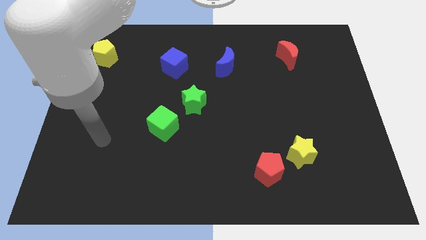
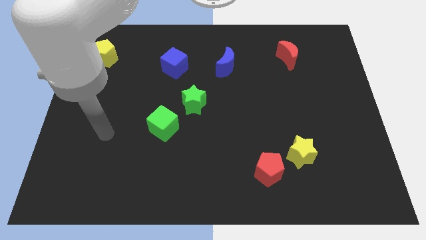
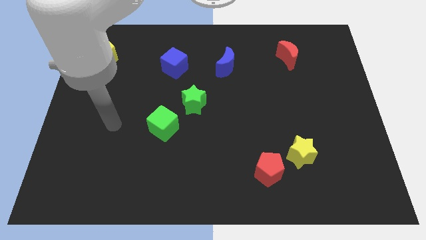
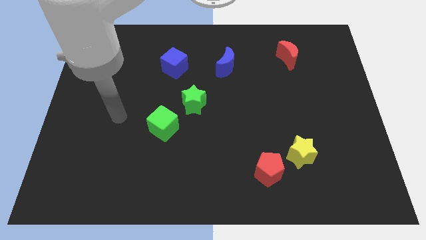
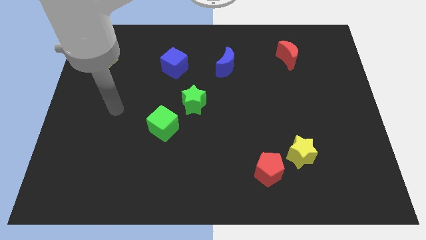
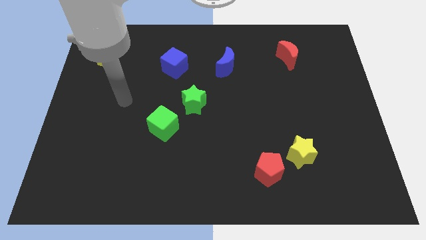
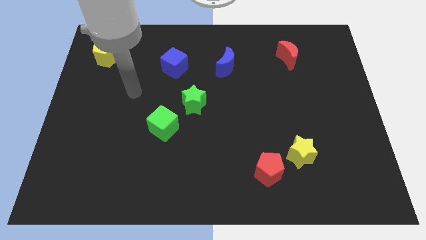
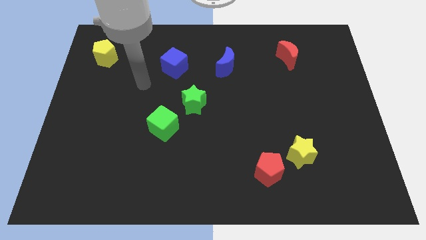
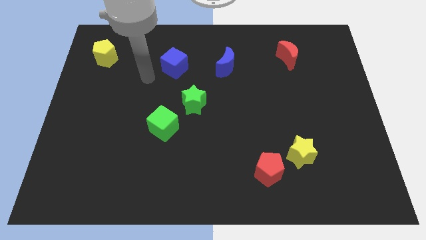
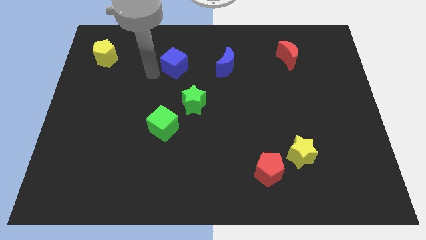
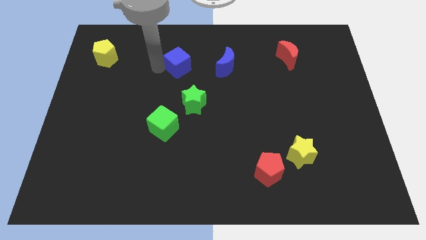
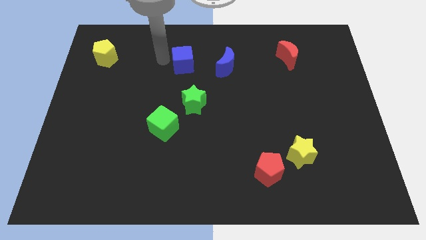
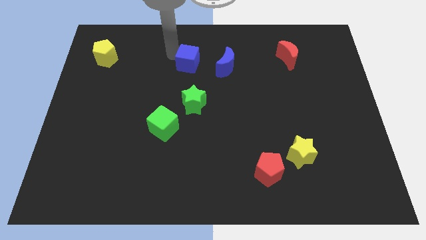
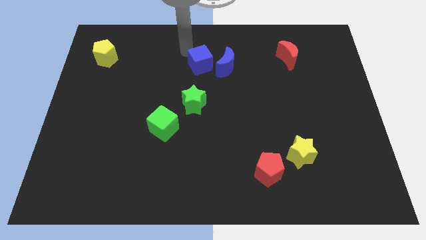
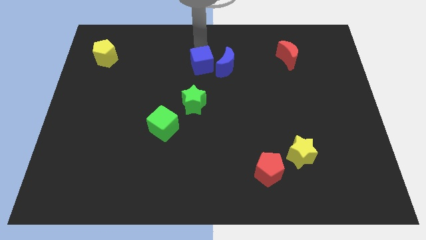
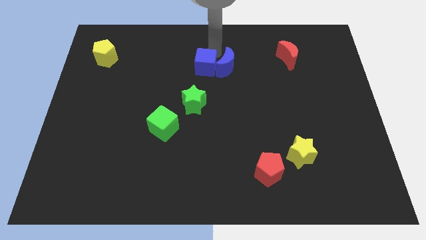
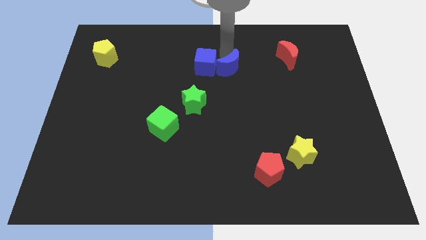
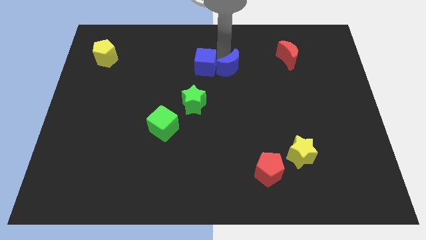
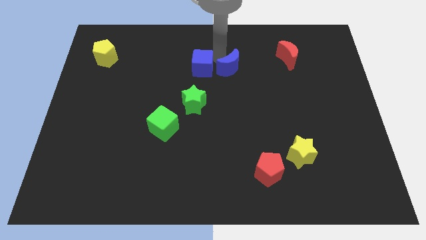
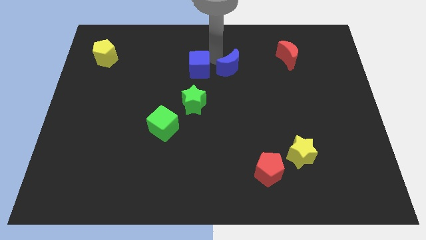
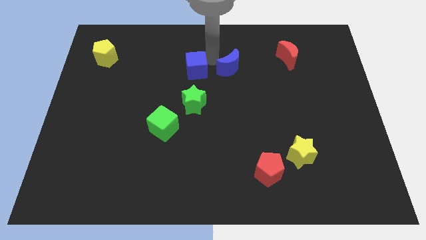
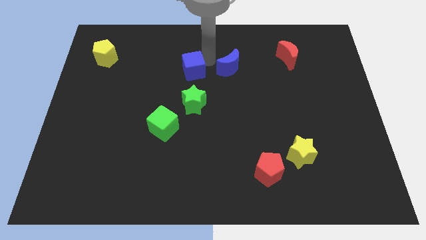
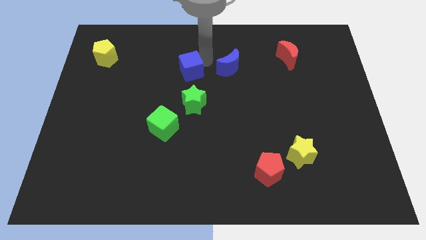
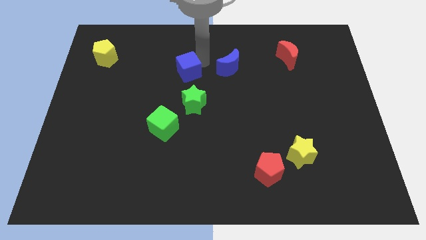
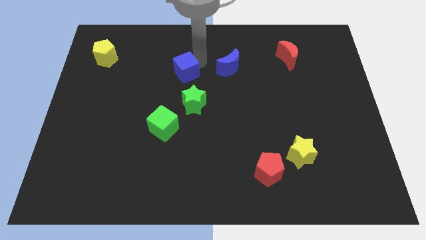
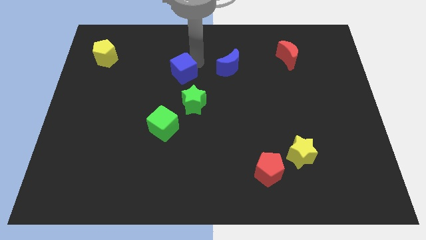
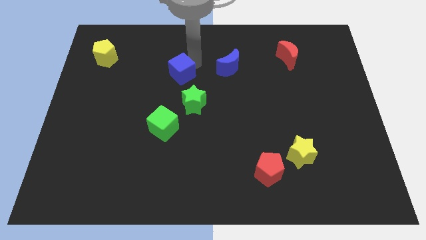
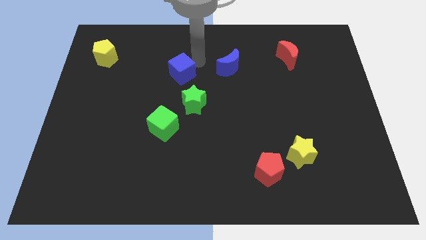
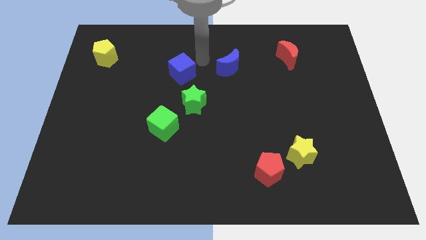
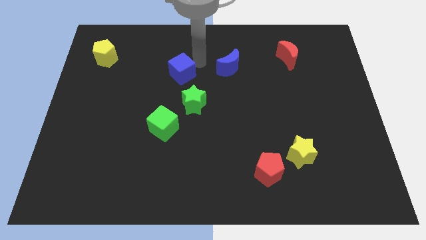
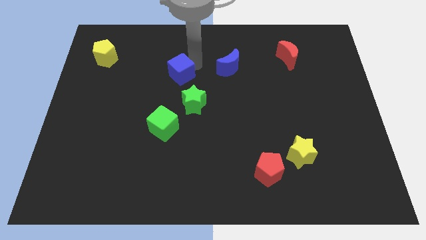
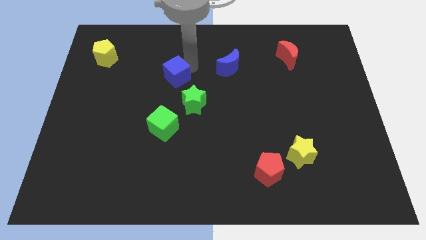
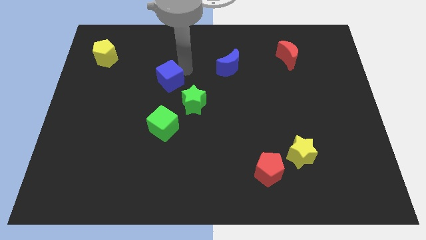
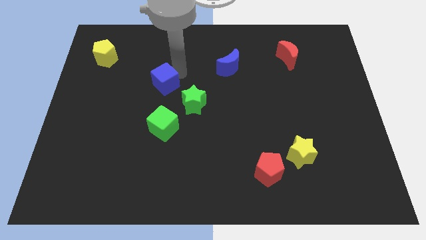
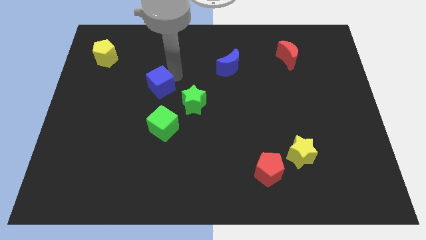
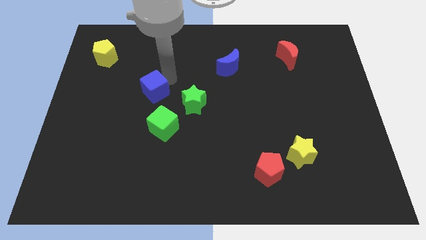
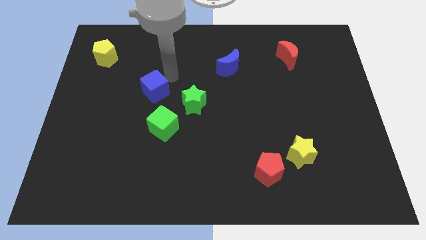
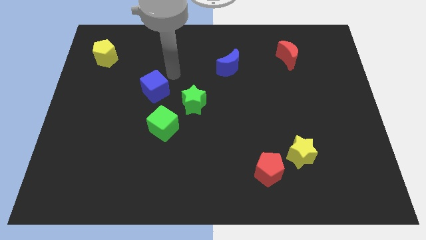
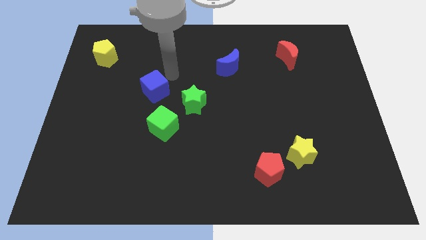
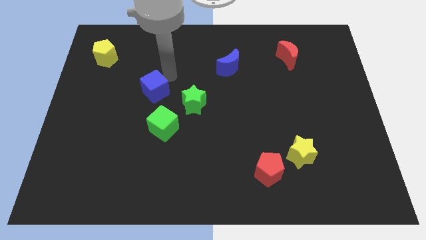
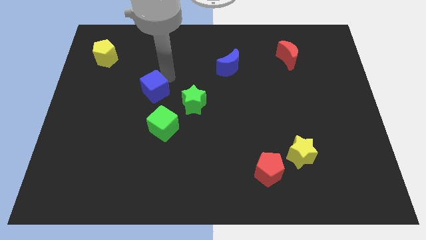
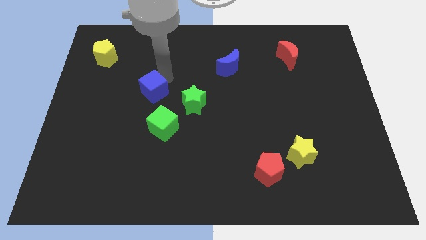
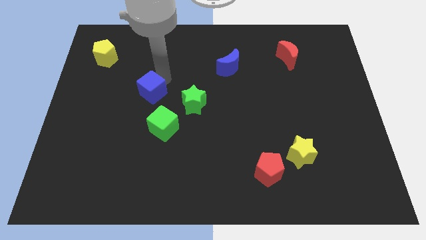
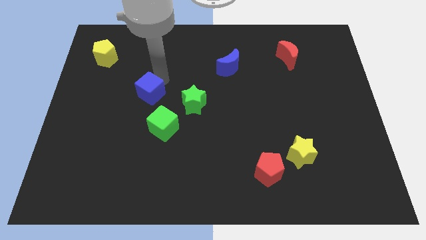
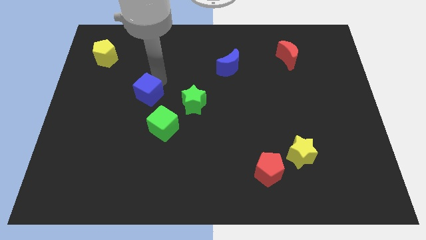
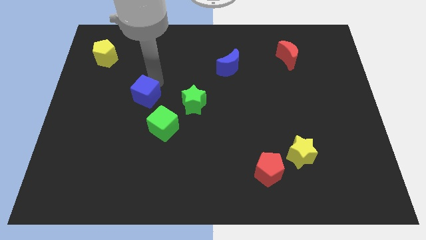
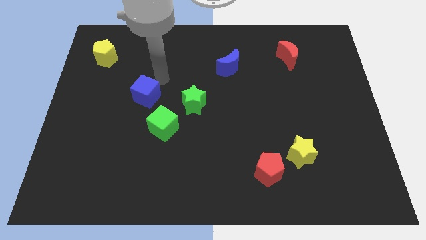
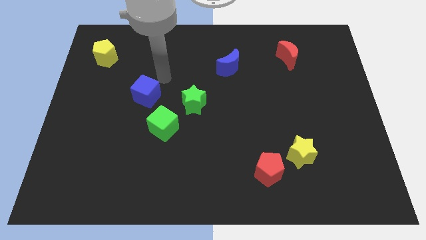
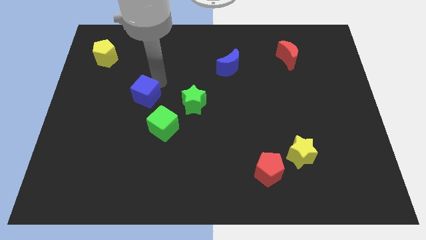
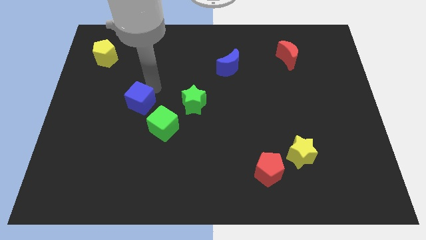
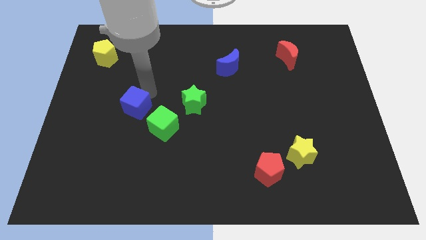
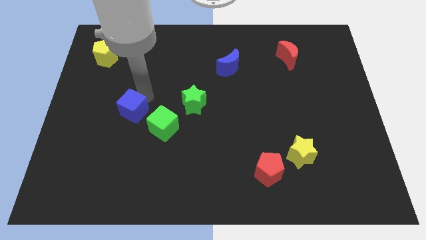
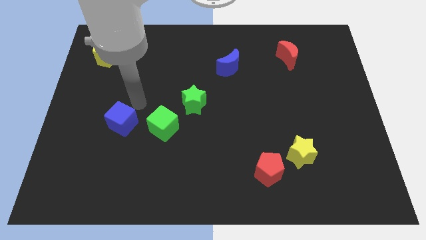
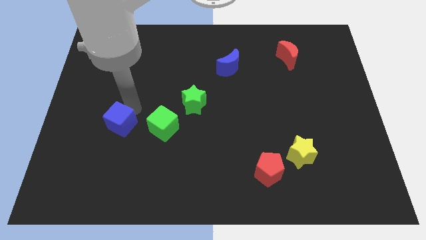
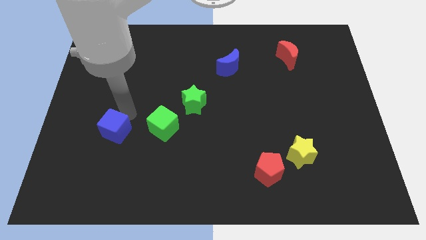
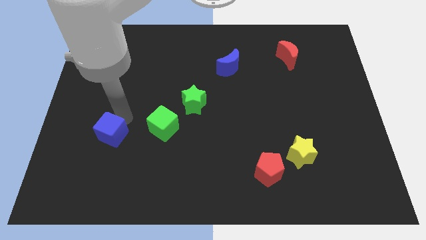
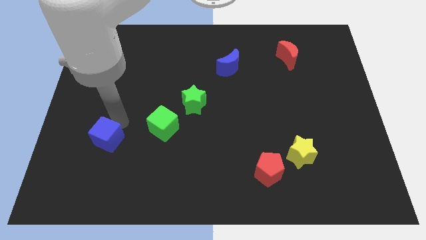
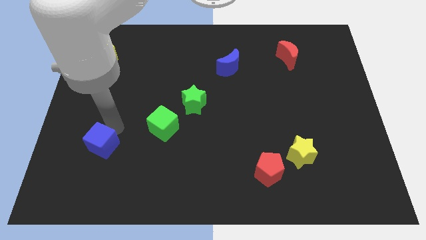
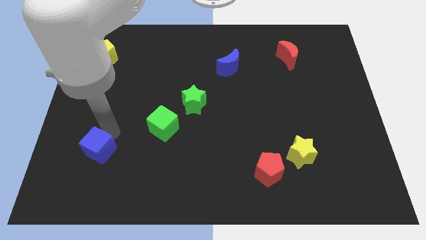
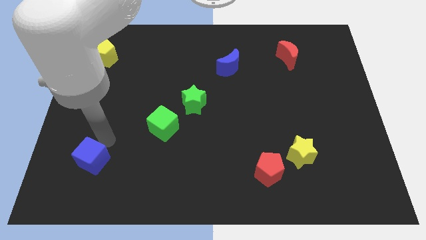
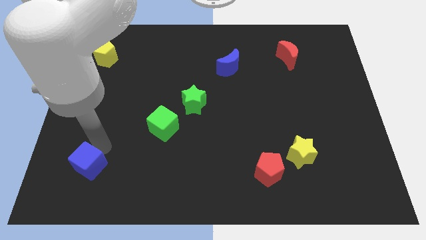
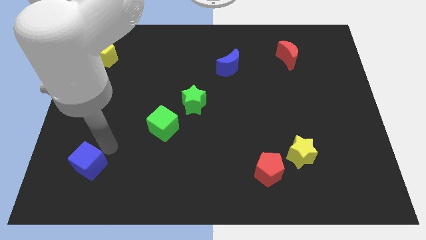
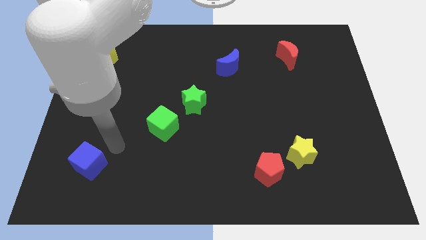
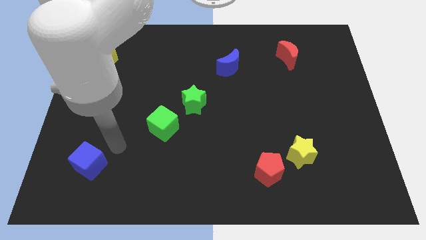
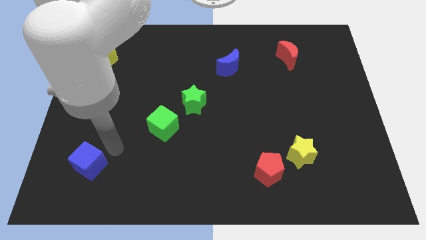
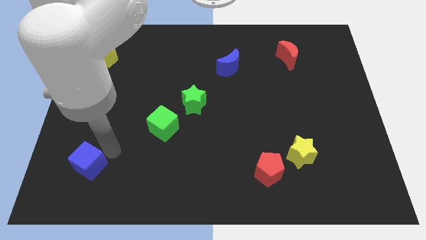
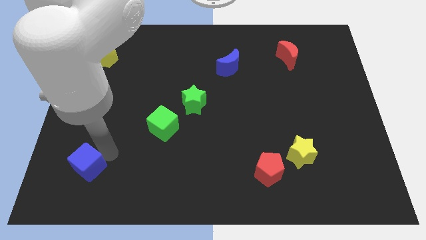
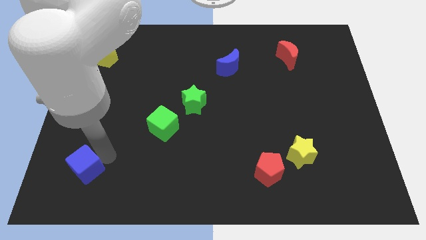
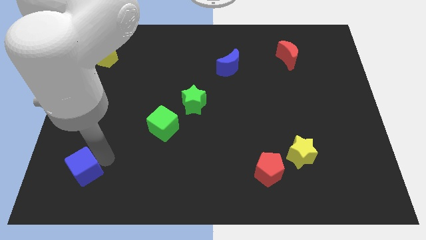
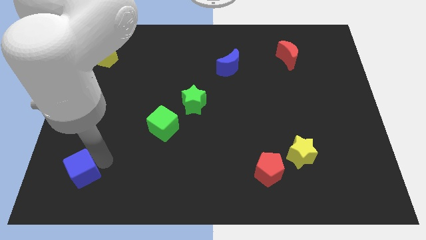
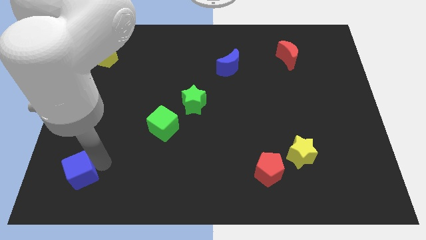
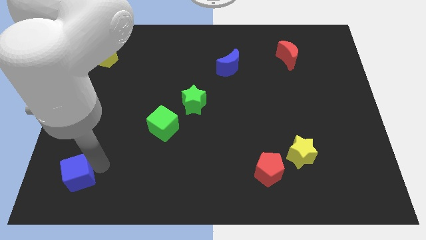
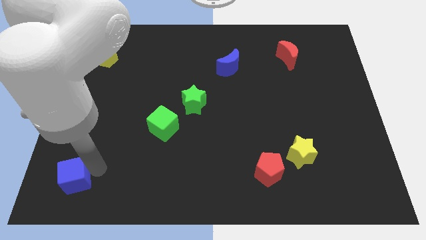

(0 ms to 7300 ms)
put the blue cube to the bottom left
